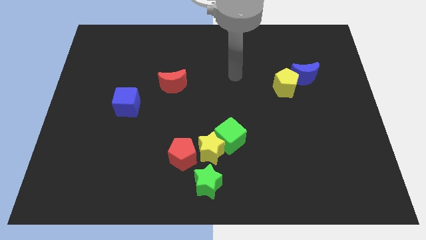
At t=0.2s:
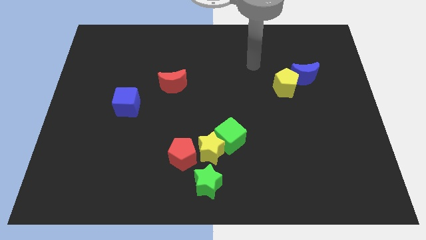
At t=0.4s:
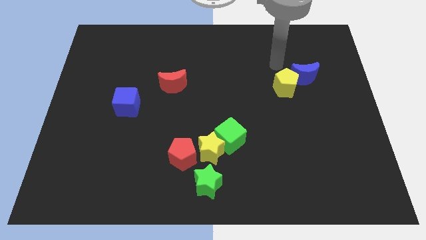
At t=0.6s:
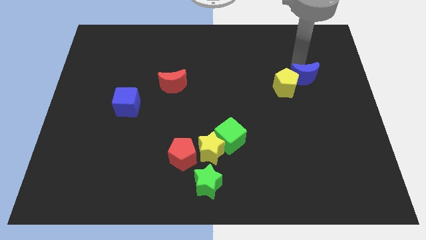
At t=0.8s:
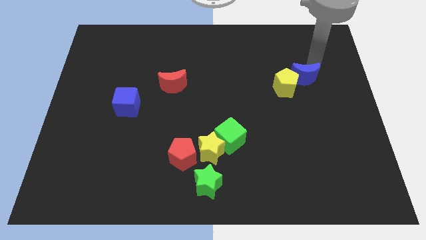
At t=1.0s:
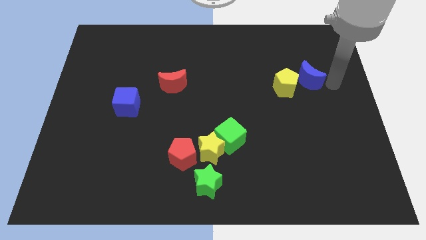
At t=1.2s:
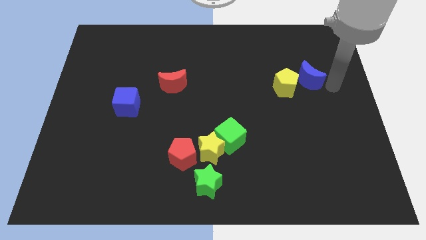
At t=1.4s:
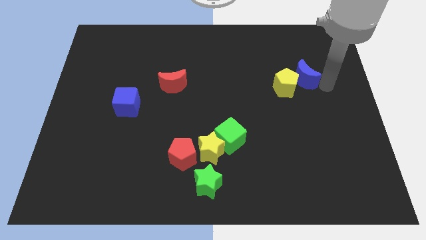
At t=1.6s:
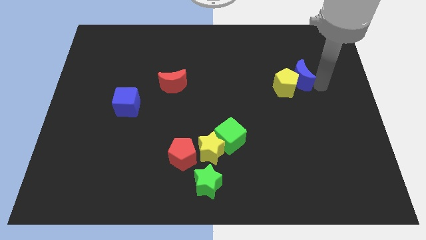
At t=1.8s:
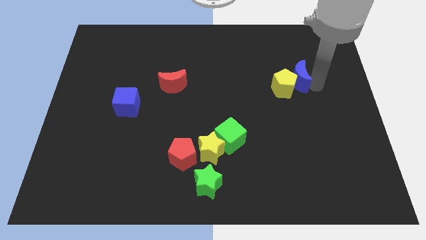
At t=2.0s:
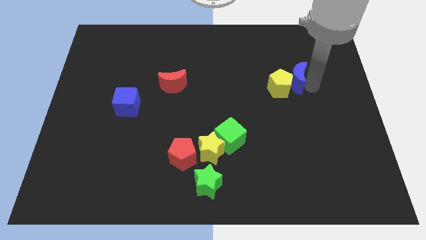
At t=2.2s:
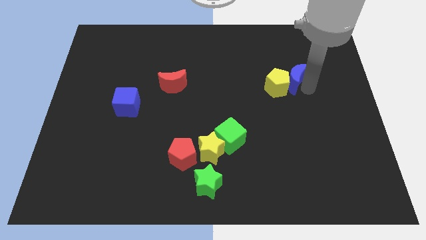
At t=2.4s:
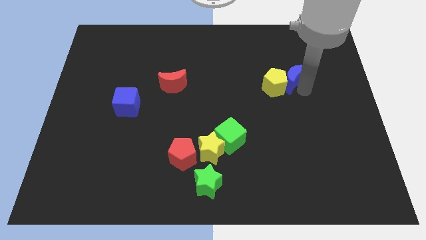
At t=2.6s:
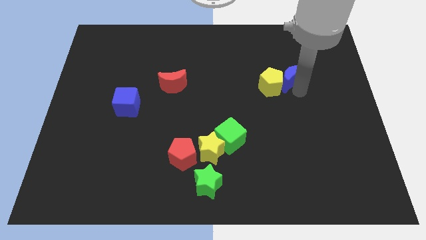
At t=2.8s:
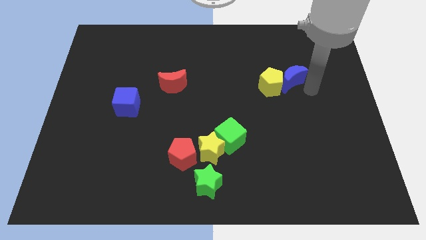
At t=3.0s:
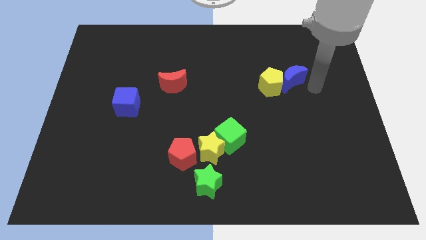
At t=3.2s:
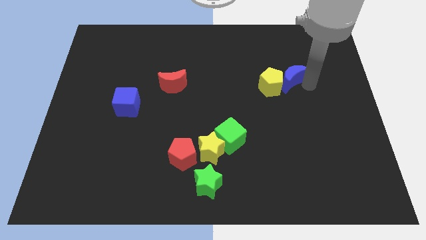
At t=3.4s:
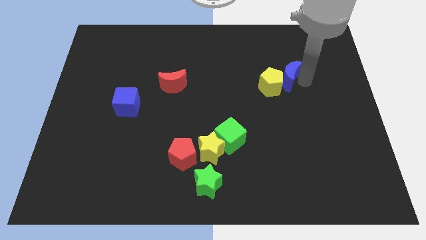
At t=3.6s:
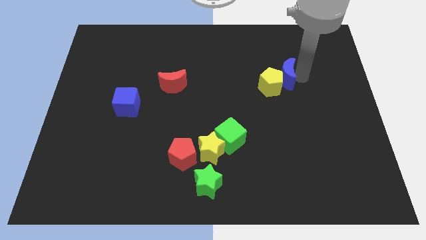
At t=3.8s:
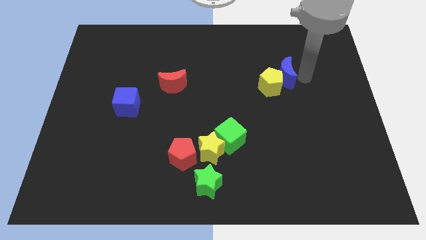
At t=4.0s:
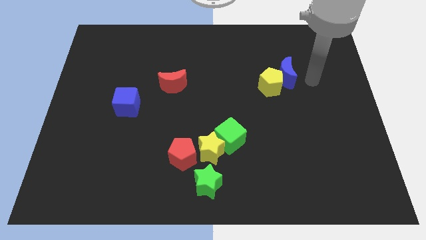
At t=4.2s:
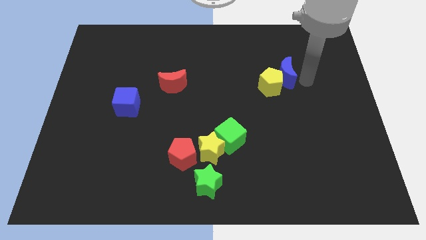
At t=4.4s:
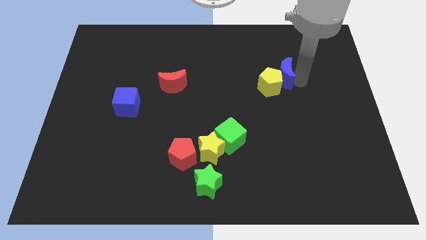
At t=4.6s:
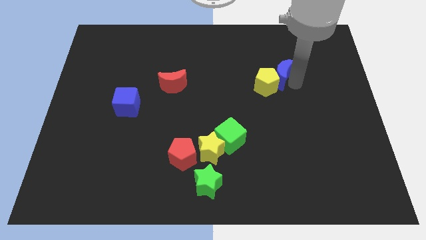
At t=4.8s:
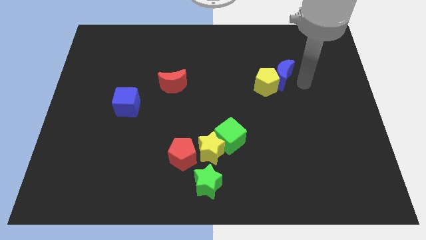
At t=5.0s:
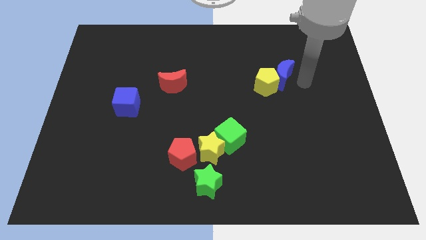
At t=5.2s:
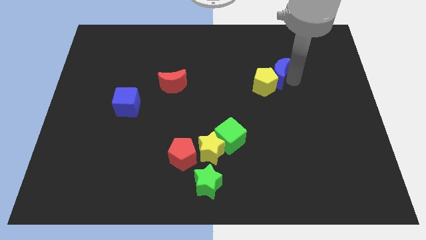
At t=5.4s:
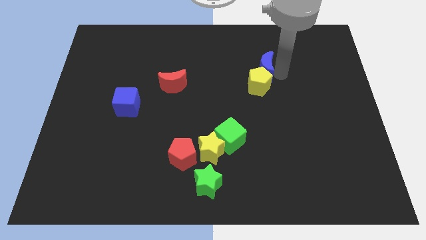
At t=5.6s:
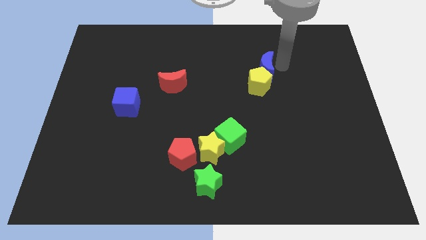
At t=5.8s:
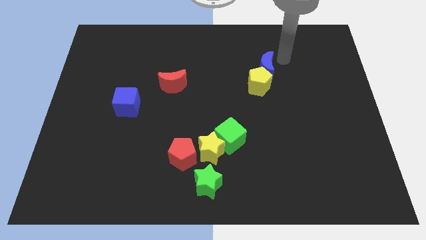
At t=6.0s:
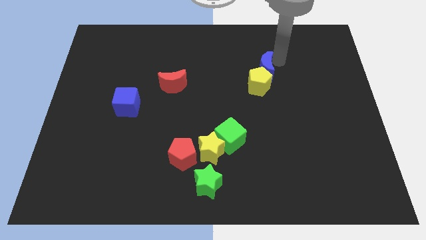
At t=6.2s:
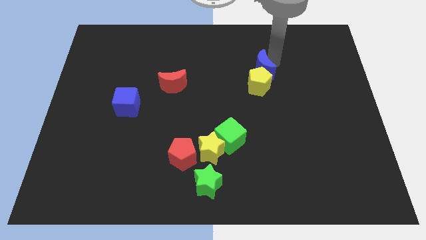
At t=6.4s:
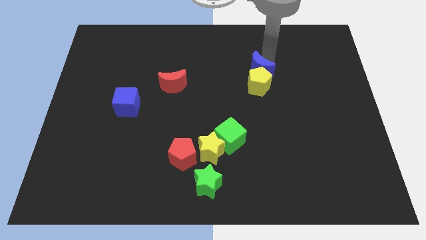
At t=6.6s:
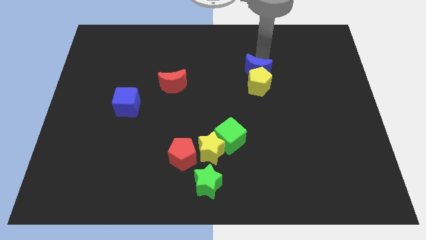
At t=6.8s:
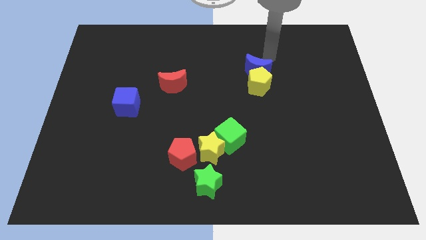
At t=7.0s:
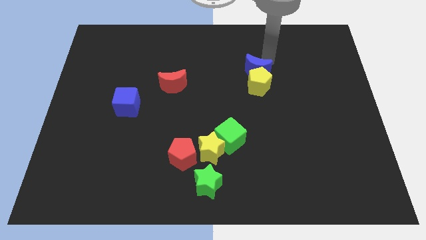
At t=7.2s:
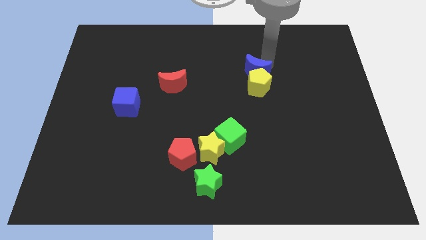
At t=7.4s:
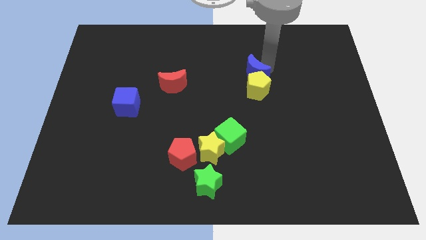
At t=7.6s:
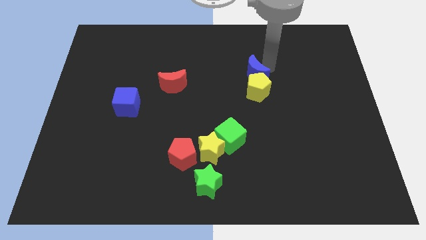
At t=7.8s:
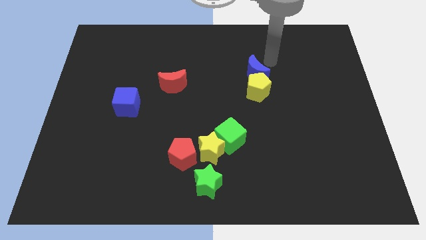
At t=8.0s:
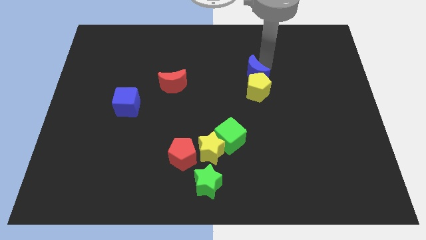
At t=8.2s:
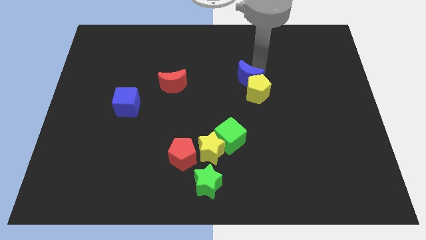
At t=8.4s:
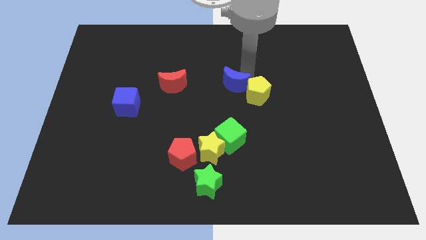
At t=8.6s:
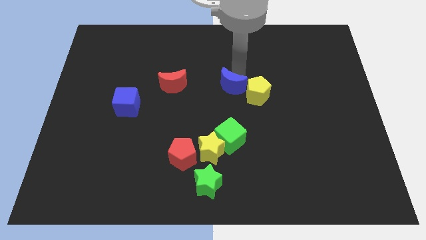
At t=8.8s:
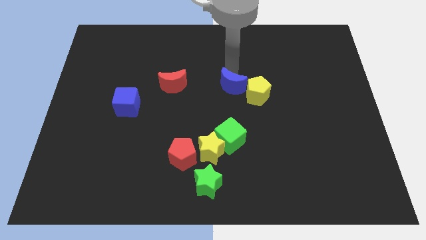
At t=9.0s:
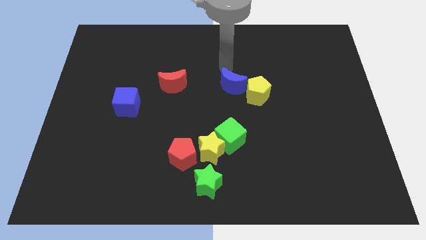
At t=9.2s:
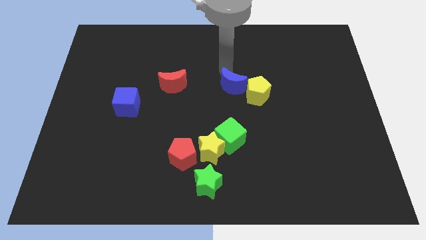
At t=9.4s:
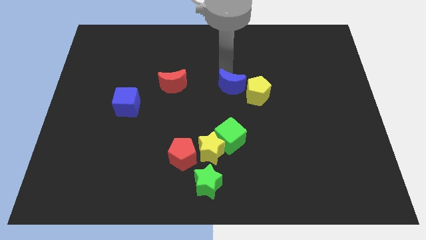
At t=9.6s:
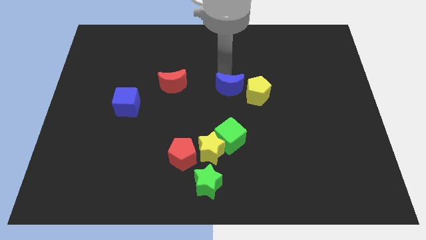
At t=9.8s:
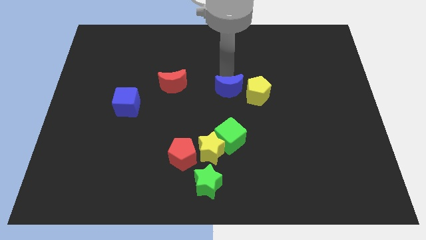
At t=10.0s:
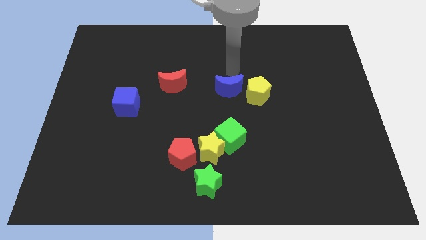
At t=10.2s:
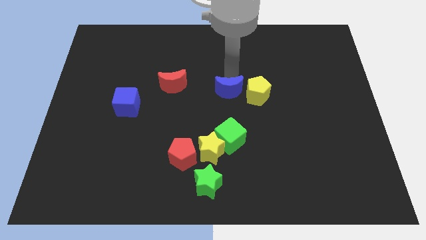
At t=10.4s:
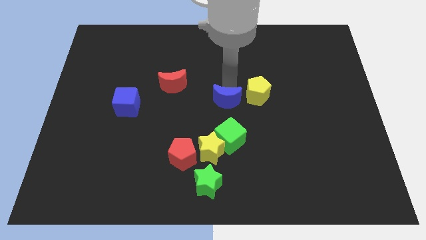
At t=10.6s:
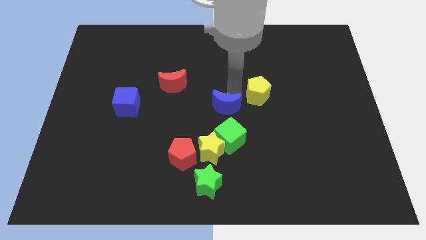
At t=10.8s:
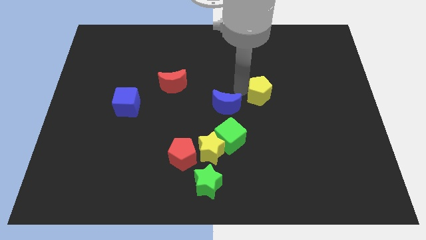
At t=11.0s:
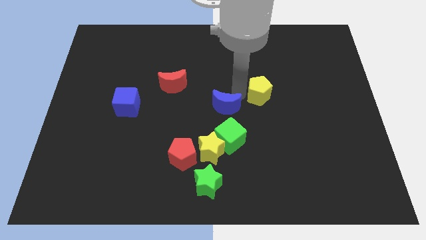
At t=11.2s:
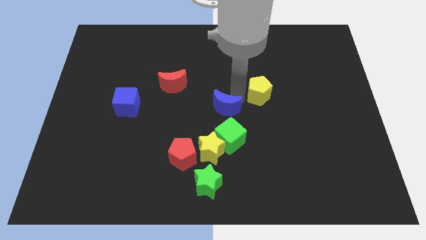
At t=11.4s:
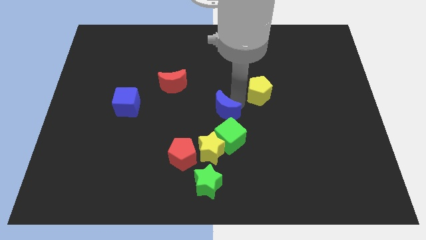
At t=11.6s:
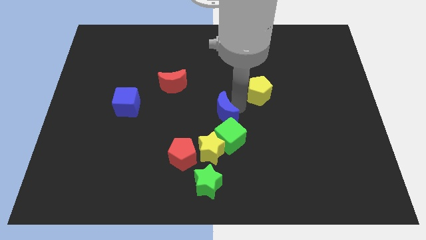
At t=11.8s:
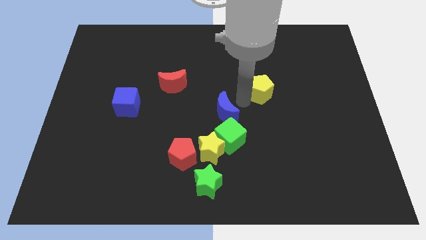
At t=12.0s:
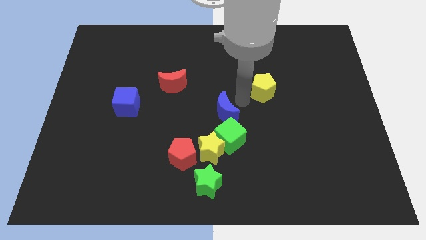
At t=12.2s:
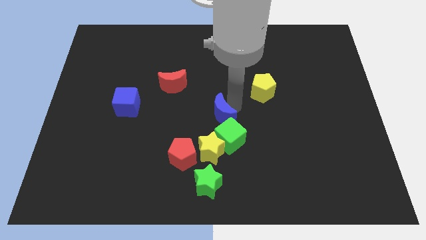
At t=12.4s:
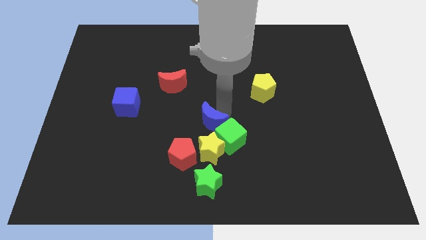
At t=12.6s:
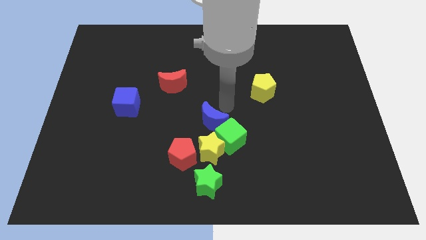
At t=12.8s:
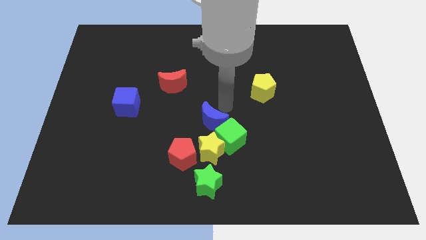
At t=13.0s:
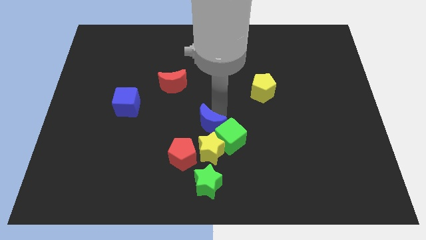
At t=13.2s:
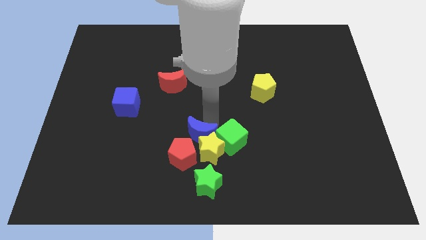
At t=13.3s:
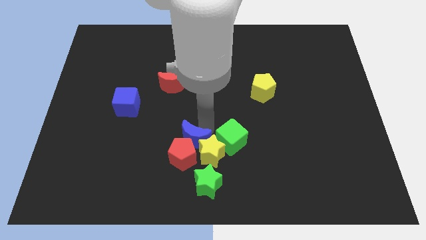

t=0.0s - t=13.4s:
push the blue moon towards the red pentagon

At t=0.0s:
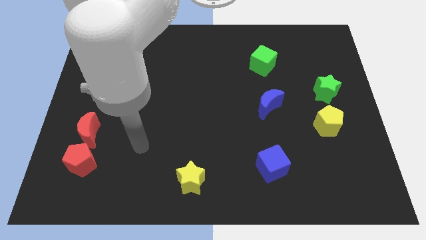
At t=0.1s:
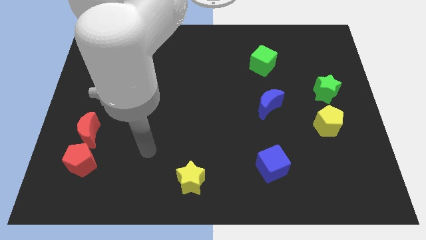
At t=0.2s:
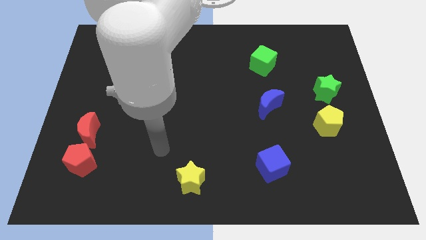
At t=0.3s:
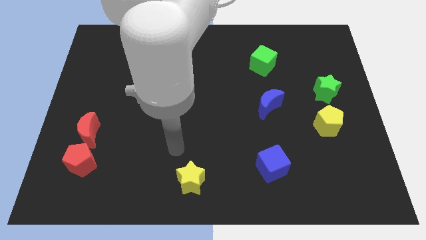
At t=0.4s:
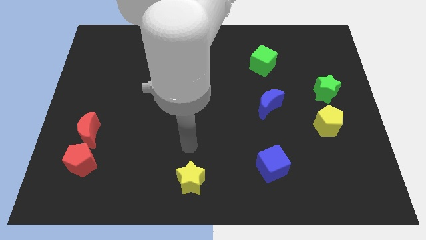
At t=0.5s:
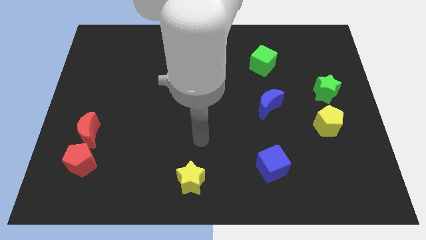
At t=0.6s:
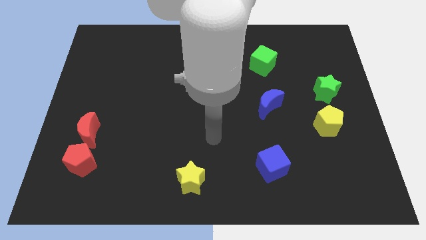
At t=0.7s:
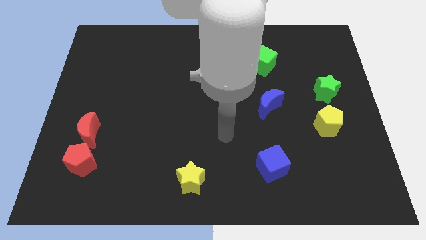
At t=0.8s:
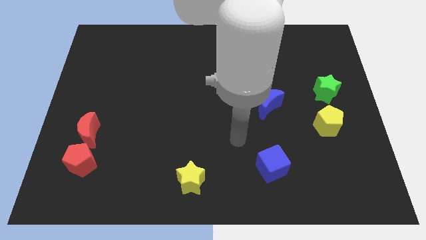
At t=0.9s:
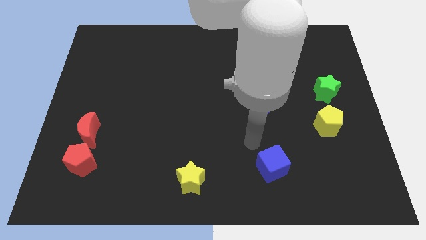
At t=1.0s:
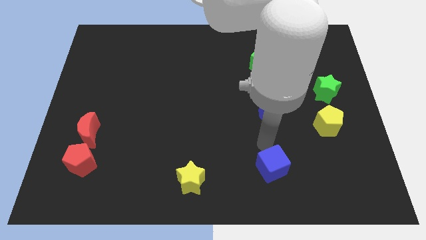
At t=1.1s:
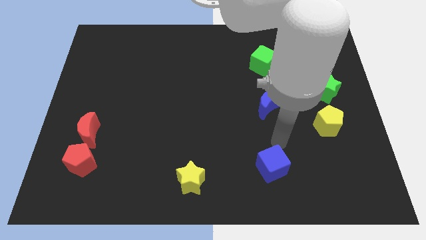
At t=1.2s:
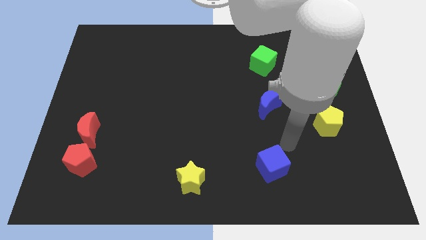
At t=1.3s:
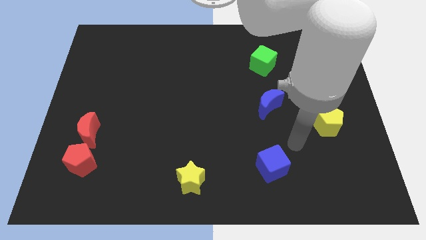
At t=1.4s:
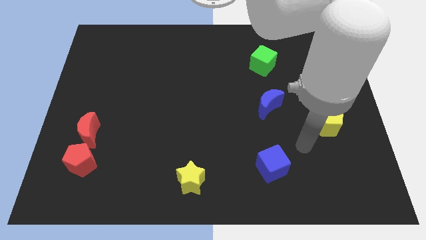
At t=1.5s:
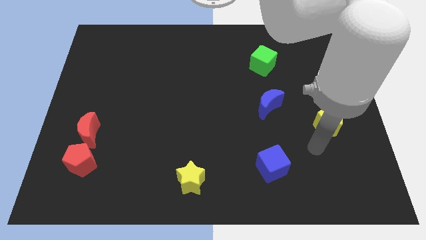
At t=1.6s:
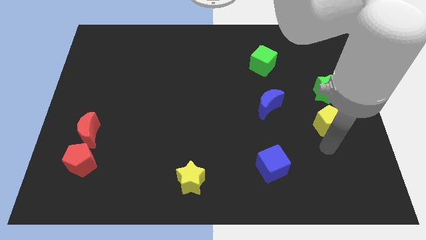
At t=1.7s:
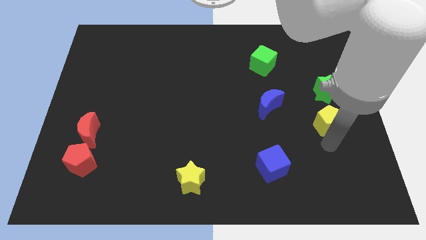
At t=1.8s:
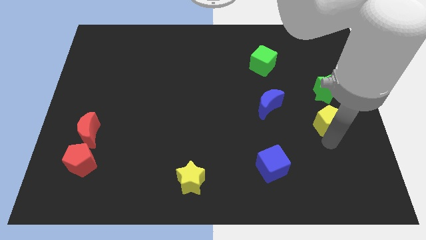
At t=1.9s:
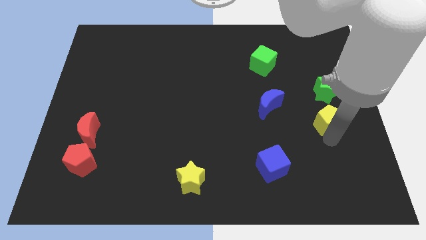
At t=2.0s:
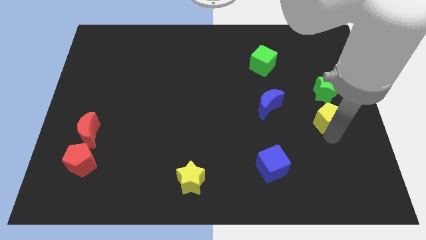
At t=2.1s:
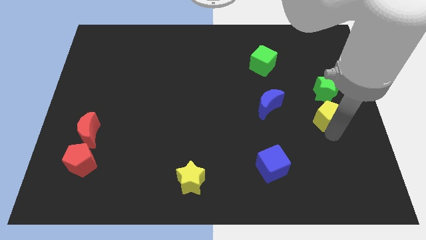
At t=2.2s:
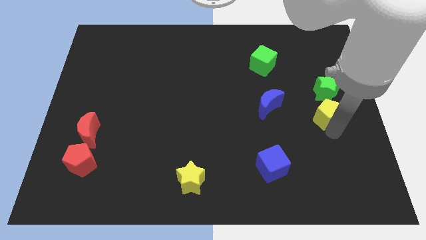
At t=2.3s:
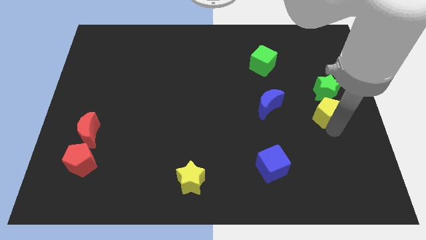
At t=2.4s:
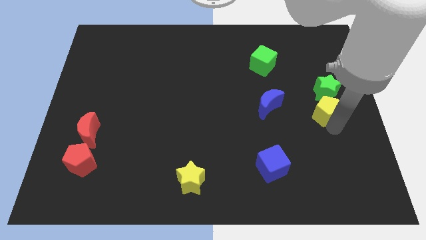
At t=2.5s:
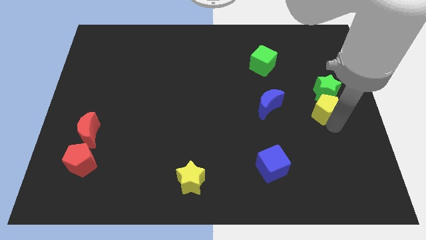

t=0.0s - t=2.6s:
push the yellow pentagon close to the green star
